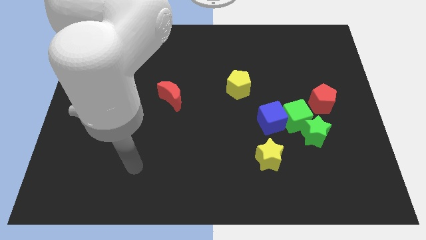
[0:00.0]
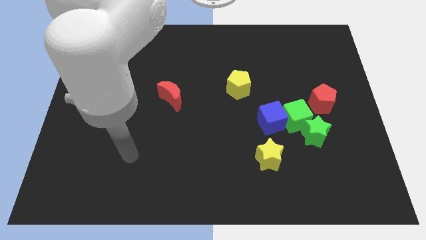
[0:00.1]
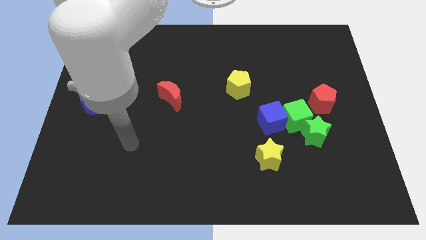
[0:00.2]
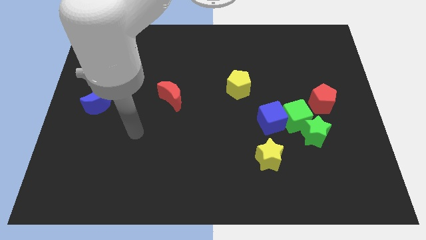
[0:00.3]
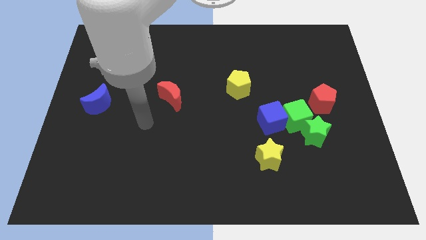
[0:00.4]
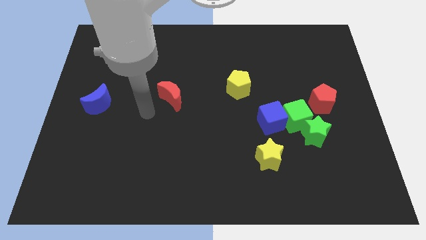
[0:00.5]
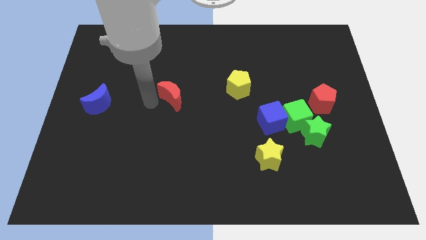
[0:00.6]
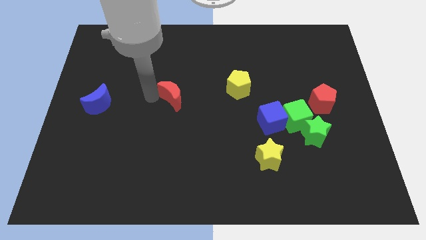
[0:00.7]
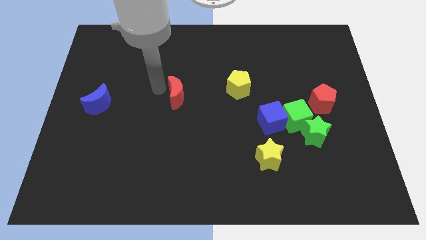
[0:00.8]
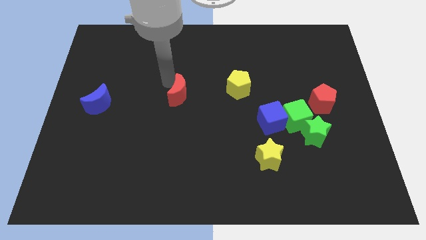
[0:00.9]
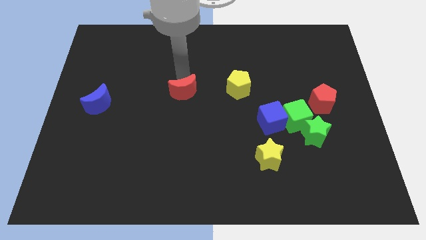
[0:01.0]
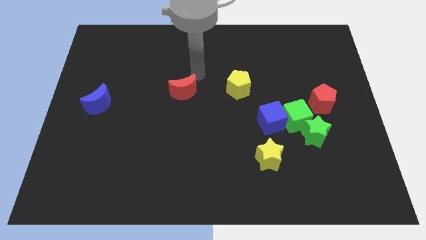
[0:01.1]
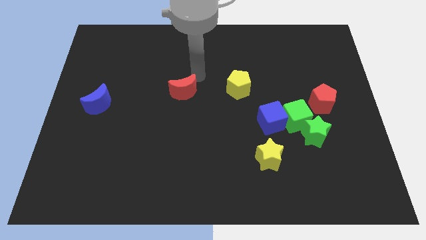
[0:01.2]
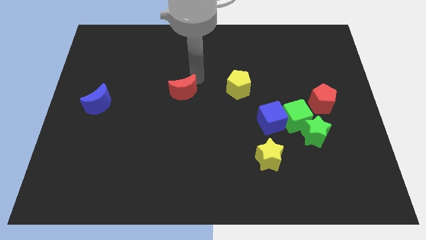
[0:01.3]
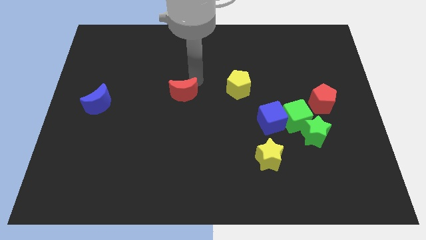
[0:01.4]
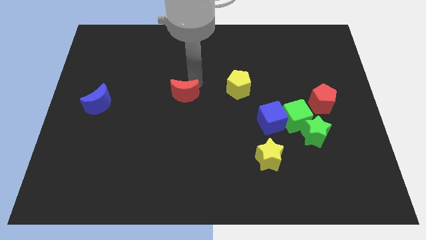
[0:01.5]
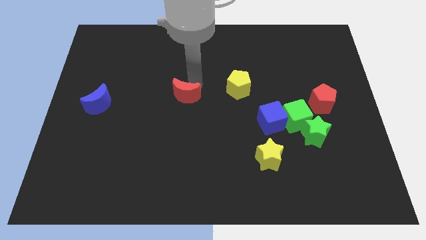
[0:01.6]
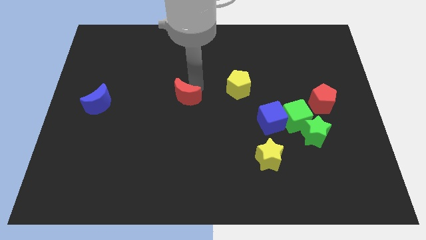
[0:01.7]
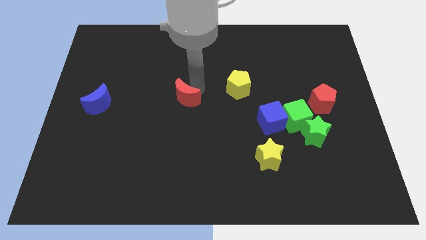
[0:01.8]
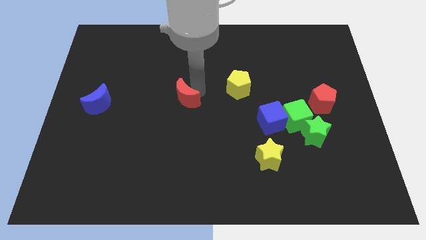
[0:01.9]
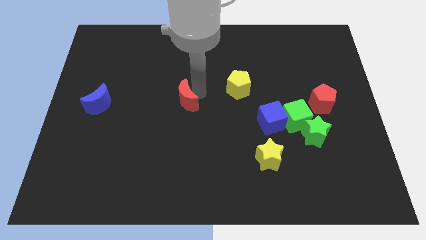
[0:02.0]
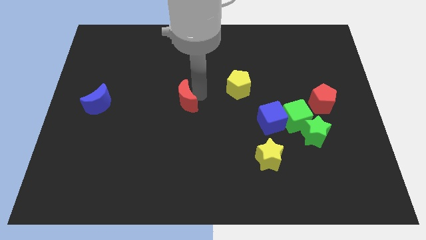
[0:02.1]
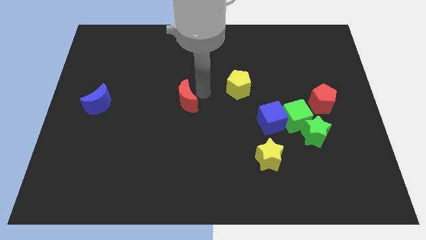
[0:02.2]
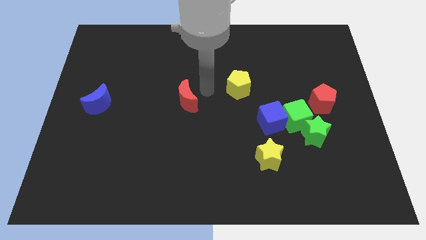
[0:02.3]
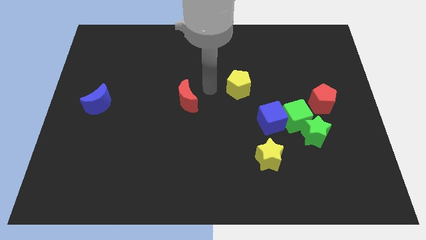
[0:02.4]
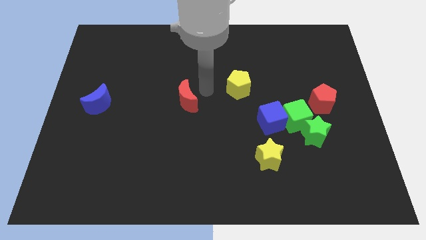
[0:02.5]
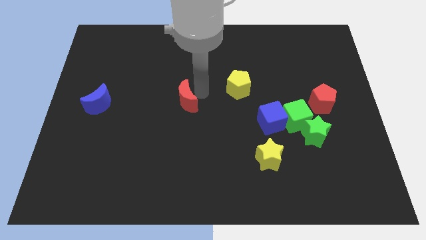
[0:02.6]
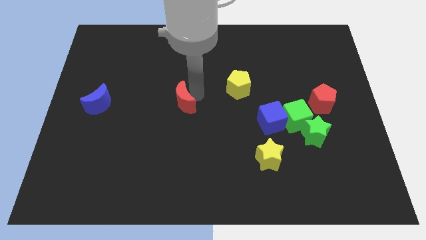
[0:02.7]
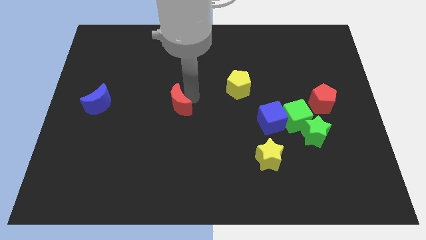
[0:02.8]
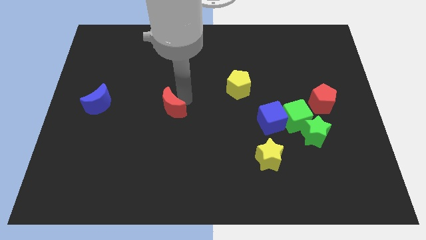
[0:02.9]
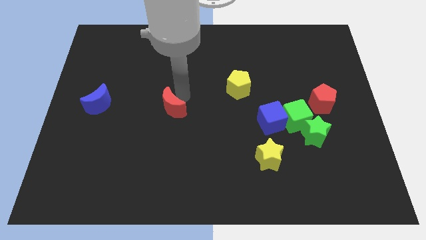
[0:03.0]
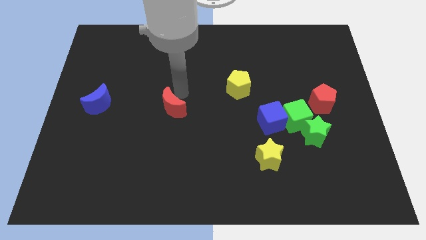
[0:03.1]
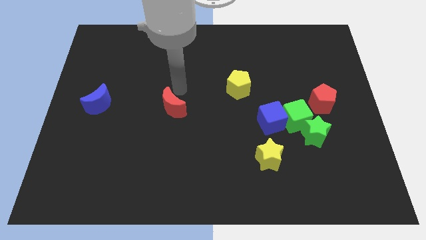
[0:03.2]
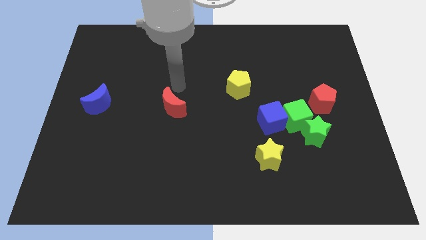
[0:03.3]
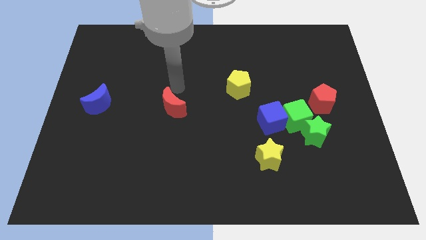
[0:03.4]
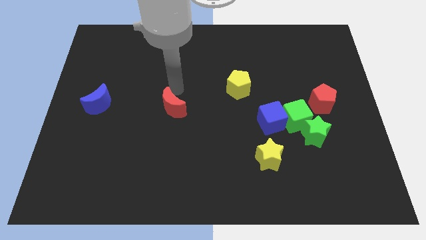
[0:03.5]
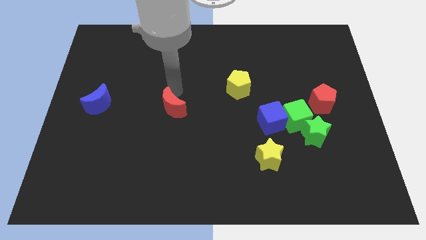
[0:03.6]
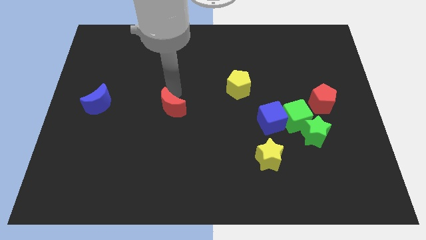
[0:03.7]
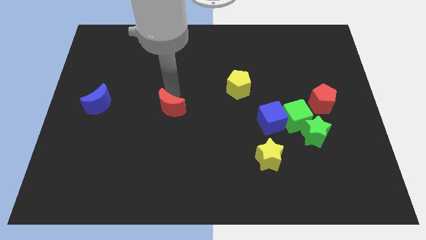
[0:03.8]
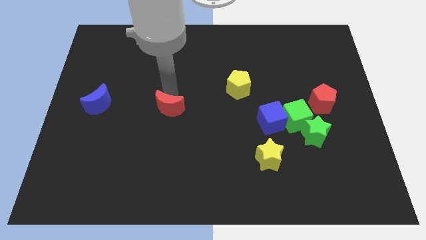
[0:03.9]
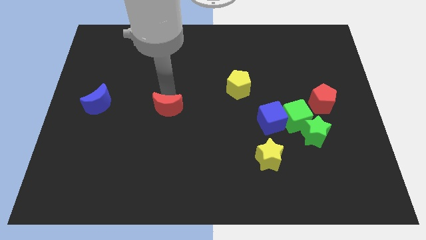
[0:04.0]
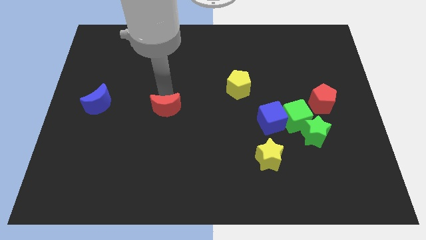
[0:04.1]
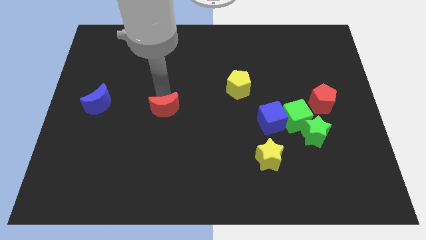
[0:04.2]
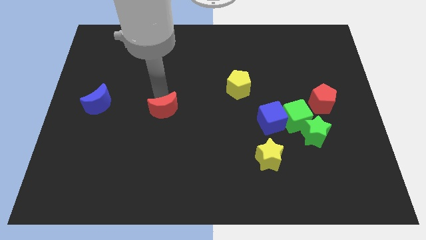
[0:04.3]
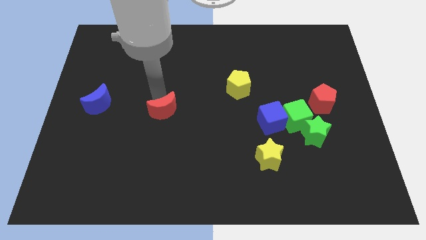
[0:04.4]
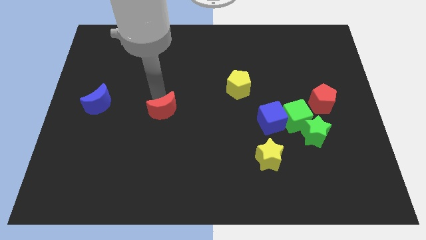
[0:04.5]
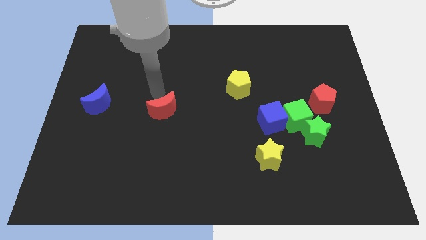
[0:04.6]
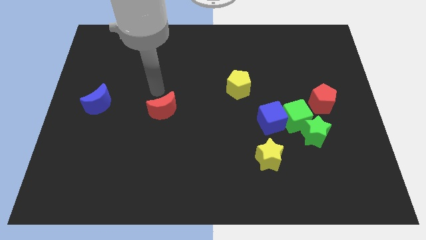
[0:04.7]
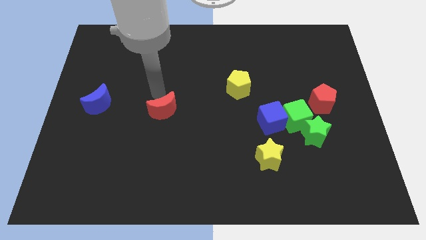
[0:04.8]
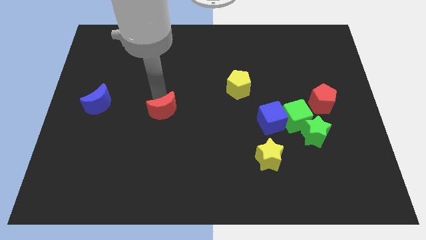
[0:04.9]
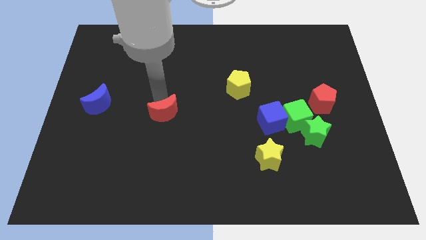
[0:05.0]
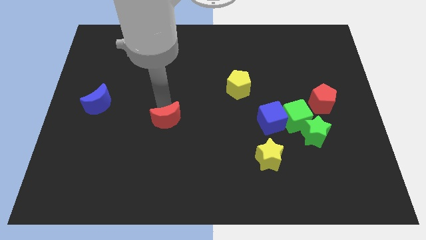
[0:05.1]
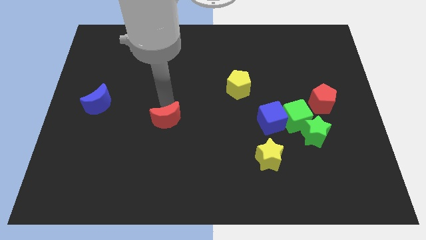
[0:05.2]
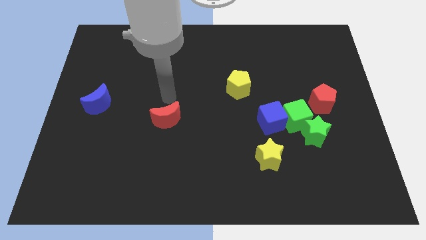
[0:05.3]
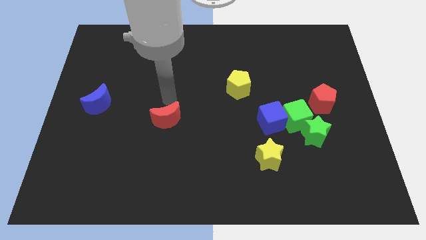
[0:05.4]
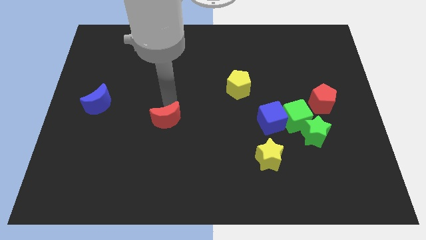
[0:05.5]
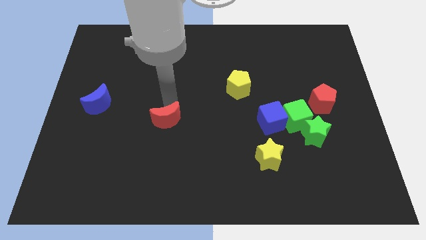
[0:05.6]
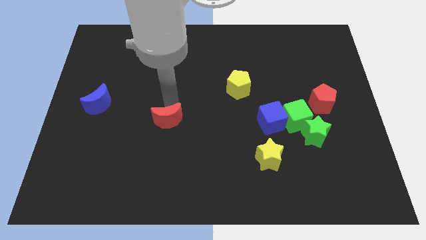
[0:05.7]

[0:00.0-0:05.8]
slightly push the red moon down

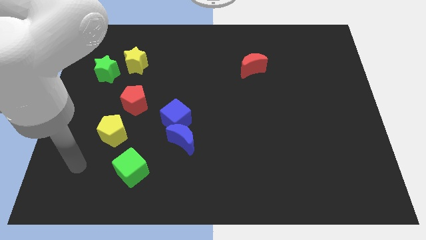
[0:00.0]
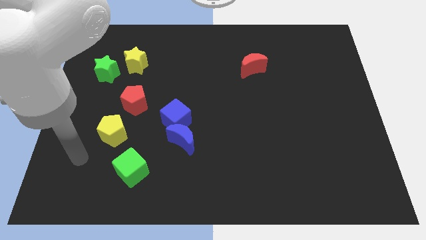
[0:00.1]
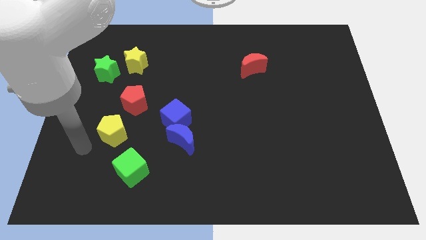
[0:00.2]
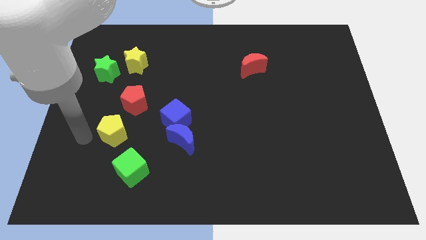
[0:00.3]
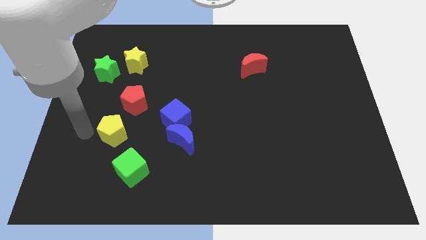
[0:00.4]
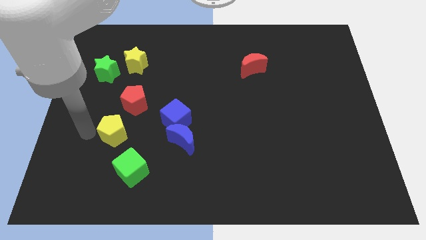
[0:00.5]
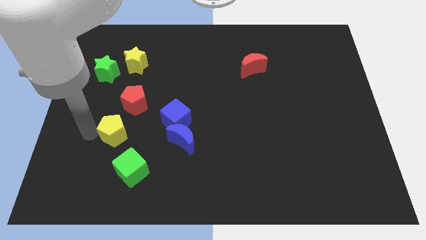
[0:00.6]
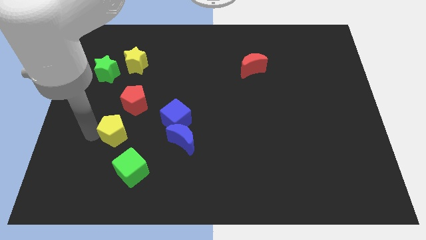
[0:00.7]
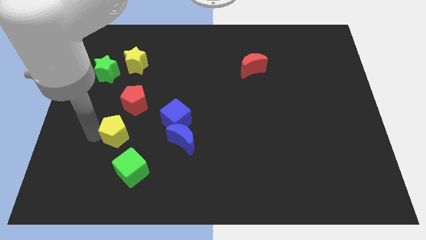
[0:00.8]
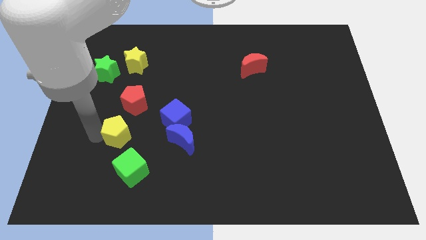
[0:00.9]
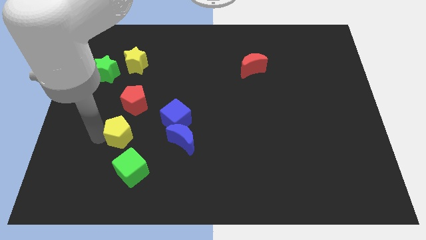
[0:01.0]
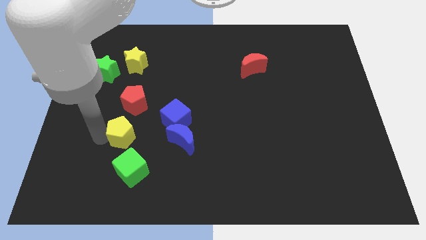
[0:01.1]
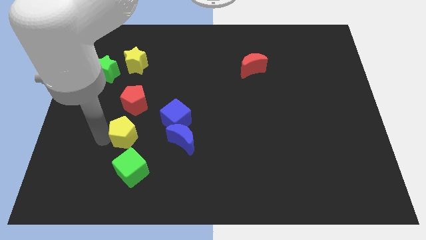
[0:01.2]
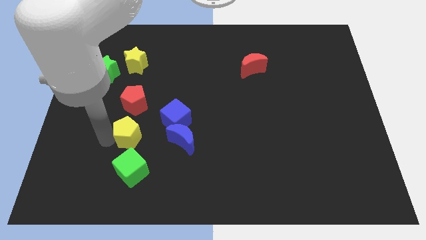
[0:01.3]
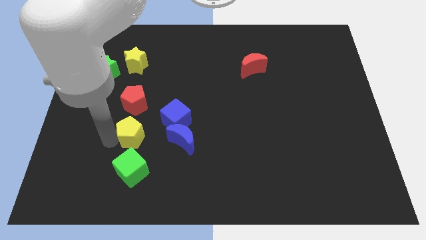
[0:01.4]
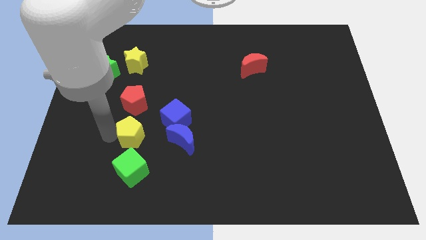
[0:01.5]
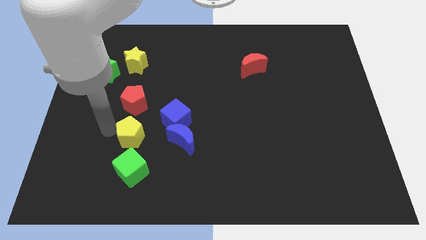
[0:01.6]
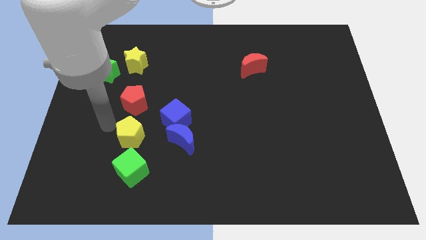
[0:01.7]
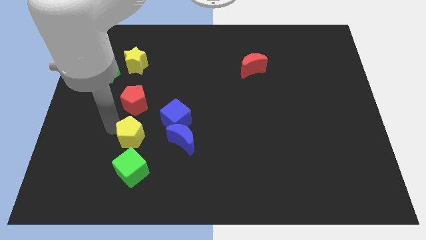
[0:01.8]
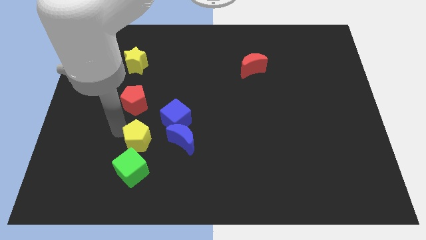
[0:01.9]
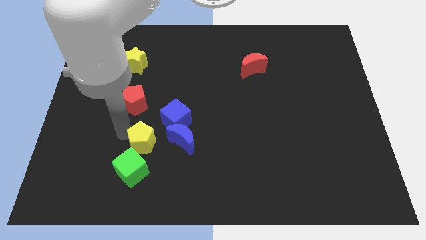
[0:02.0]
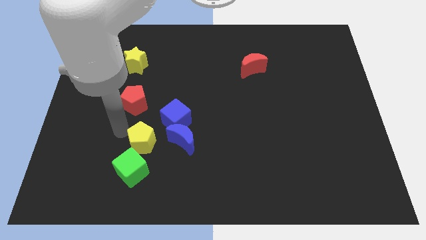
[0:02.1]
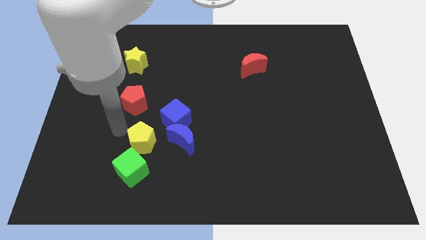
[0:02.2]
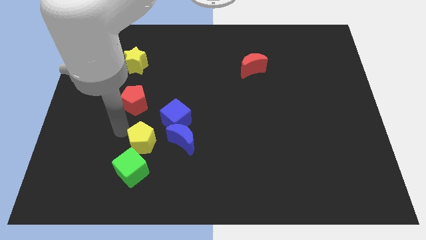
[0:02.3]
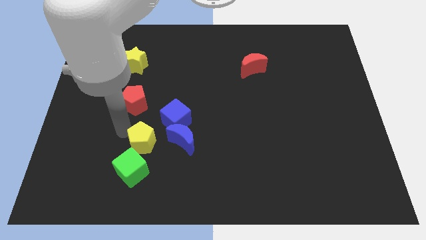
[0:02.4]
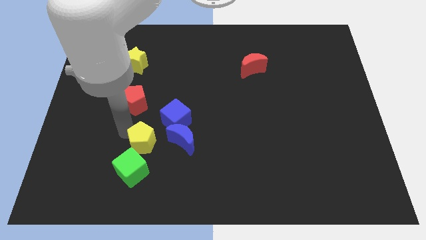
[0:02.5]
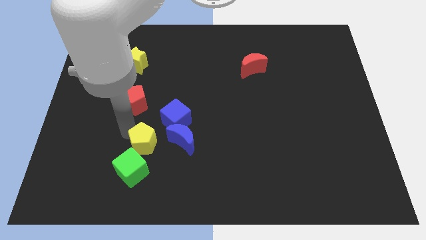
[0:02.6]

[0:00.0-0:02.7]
push the yellow pentagon a bit to the right
